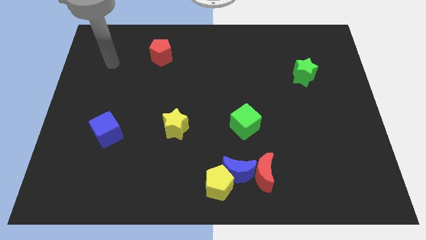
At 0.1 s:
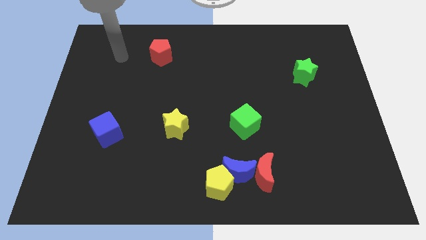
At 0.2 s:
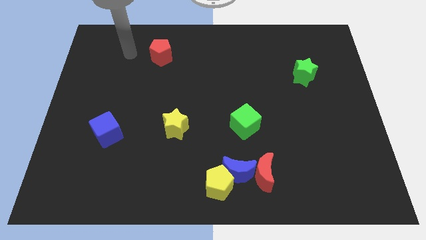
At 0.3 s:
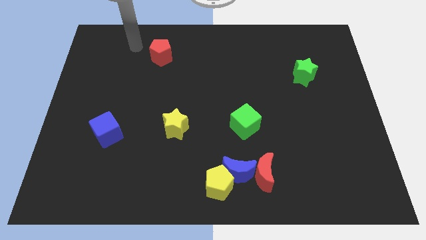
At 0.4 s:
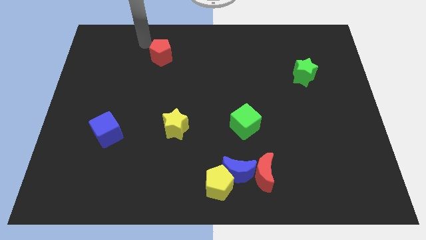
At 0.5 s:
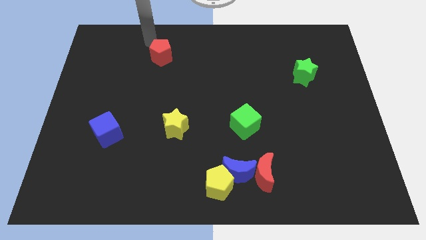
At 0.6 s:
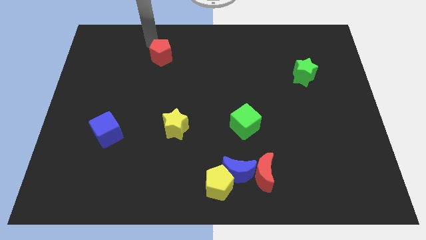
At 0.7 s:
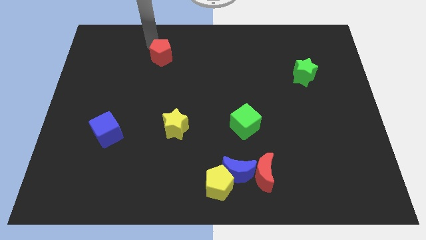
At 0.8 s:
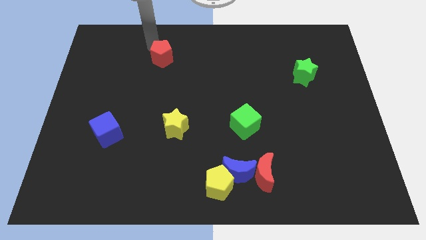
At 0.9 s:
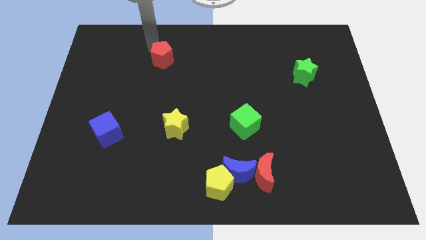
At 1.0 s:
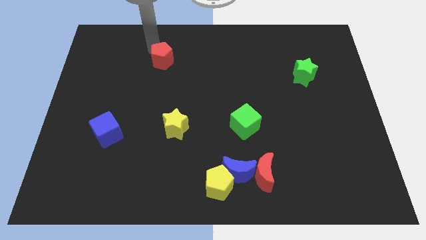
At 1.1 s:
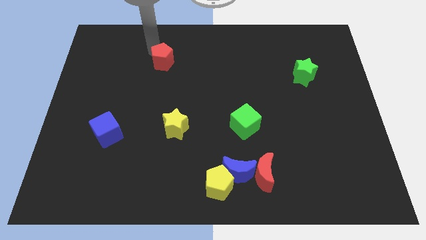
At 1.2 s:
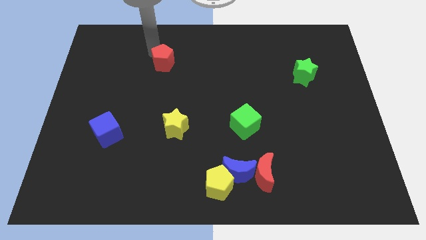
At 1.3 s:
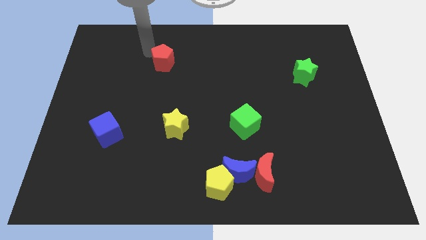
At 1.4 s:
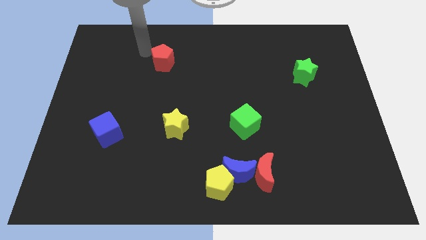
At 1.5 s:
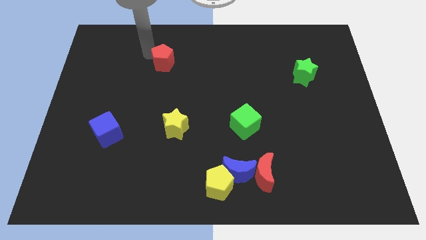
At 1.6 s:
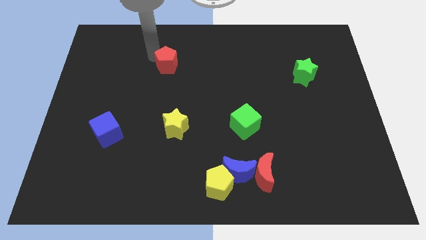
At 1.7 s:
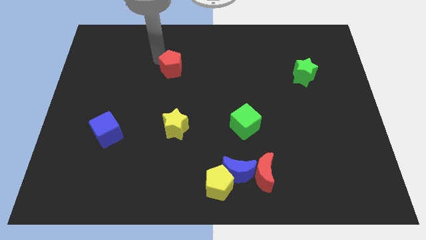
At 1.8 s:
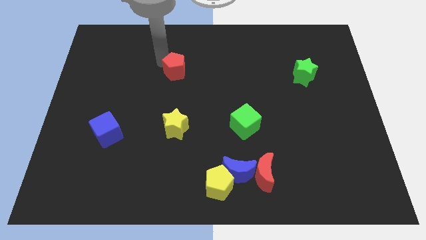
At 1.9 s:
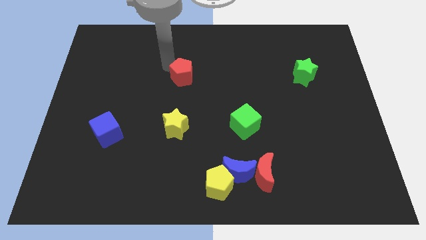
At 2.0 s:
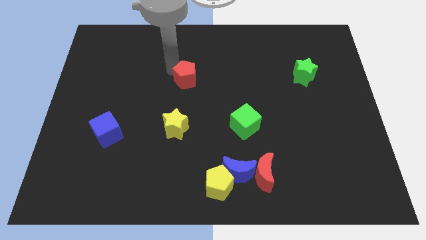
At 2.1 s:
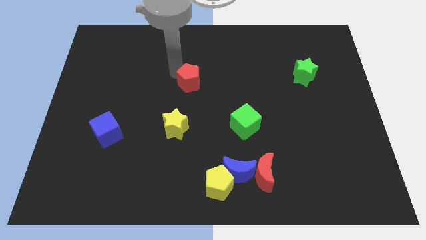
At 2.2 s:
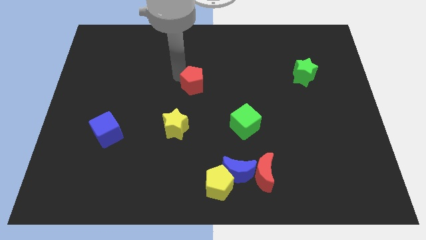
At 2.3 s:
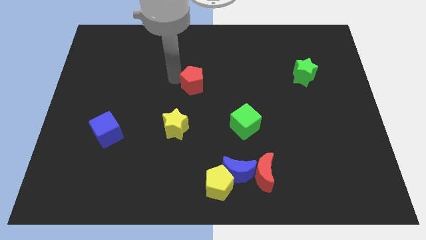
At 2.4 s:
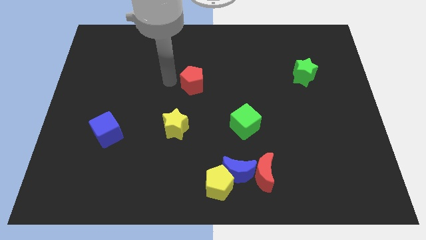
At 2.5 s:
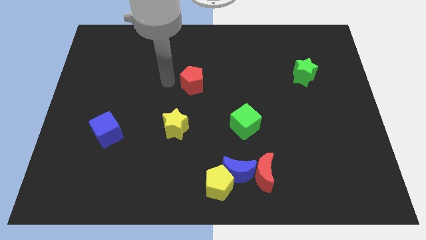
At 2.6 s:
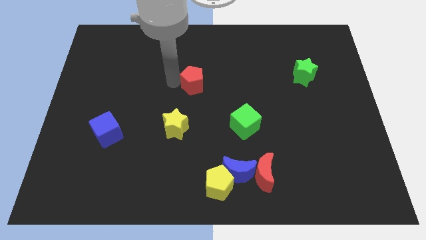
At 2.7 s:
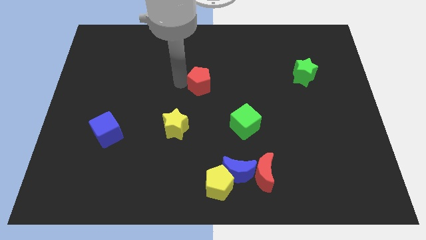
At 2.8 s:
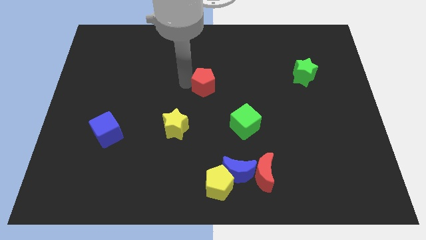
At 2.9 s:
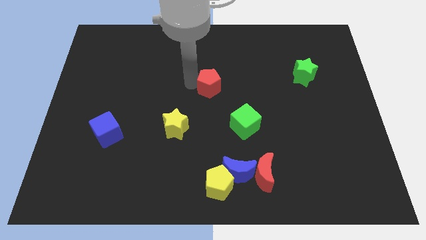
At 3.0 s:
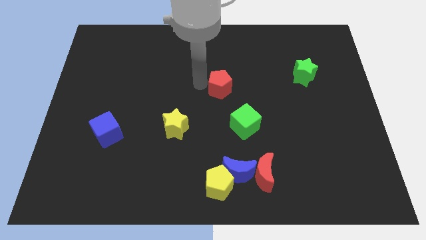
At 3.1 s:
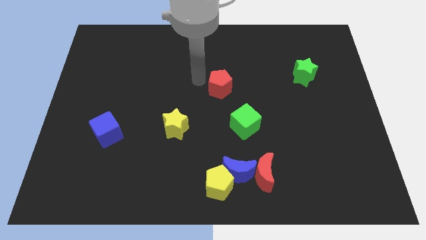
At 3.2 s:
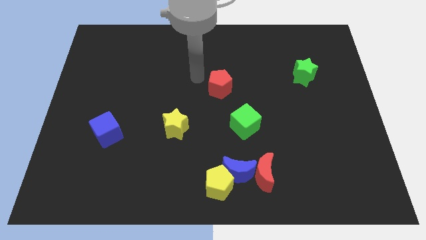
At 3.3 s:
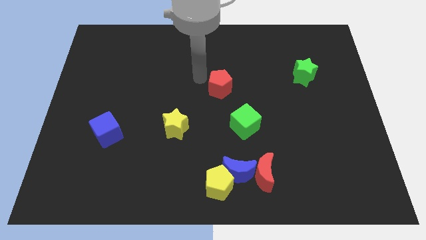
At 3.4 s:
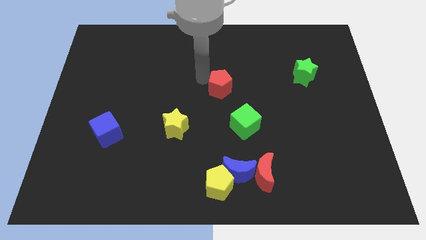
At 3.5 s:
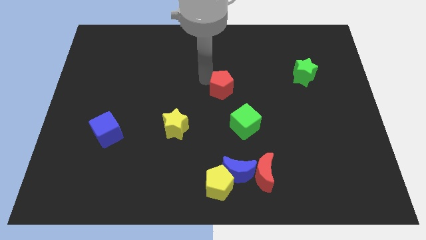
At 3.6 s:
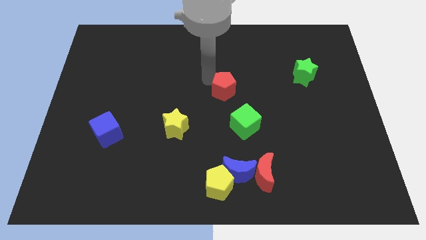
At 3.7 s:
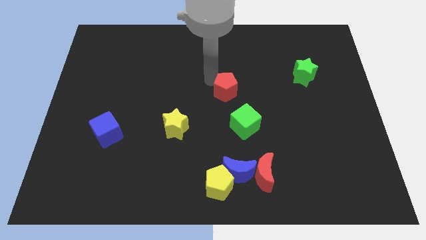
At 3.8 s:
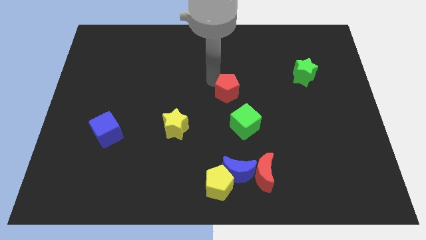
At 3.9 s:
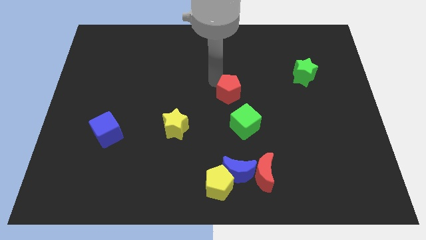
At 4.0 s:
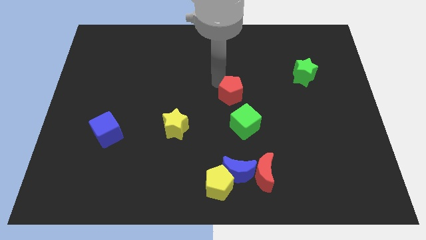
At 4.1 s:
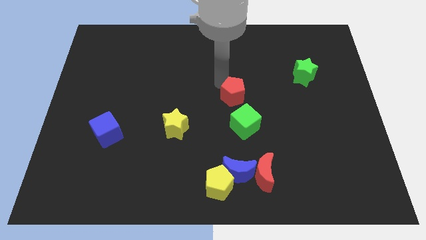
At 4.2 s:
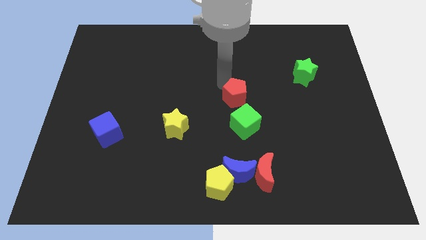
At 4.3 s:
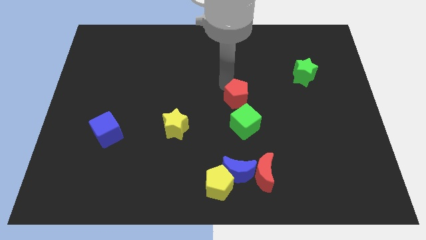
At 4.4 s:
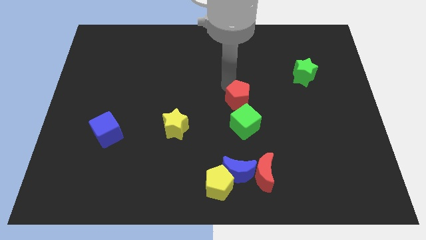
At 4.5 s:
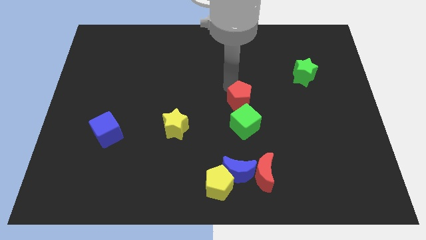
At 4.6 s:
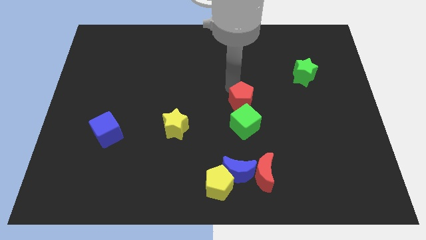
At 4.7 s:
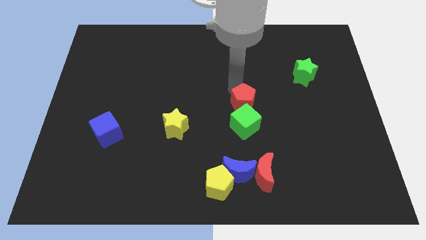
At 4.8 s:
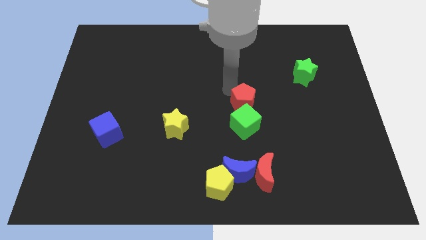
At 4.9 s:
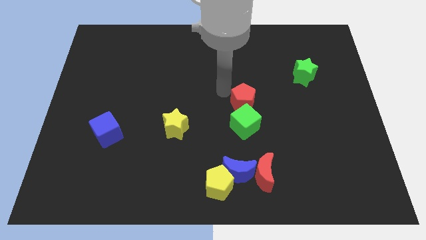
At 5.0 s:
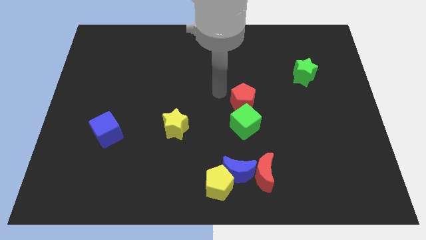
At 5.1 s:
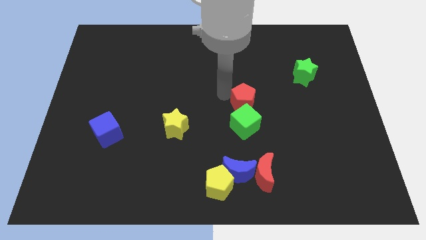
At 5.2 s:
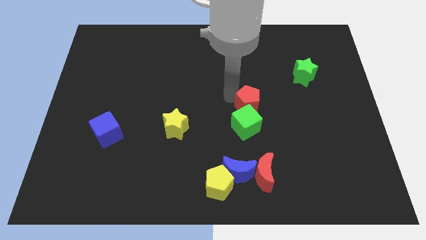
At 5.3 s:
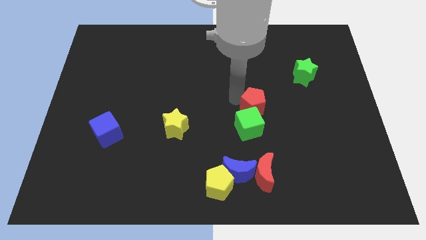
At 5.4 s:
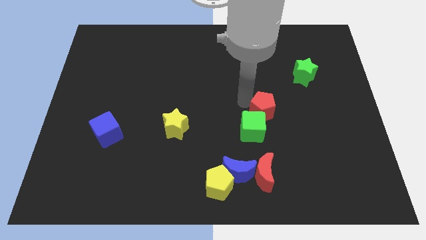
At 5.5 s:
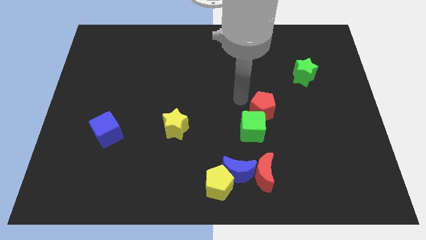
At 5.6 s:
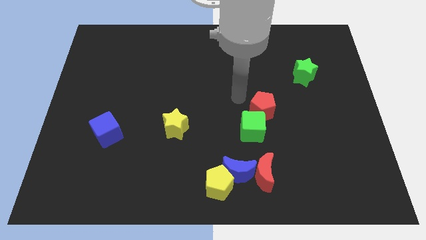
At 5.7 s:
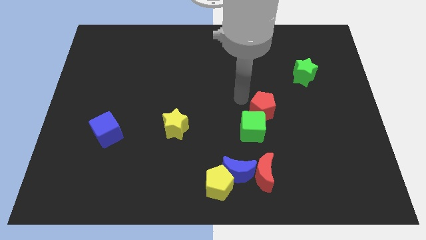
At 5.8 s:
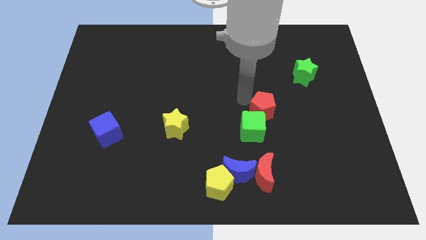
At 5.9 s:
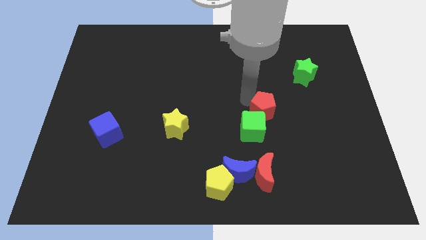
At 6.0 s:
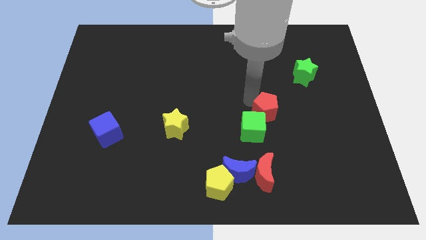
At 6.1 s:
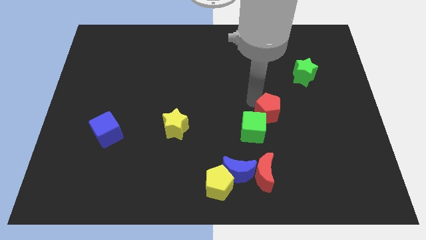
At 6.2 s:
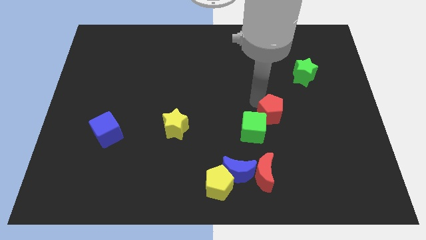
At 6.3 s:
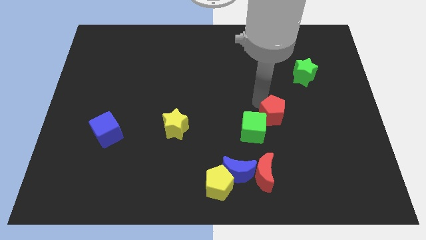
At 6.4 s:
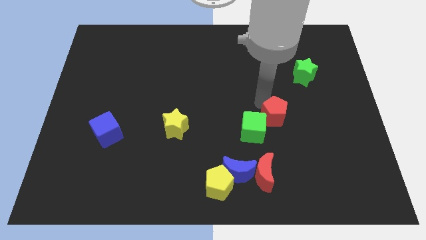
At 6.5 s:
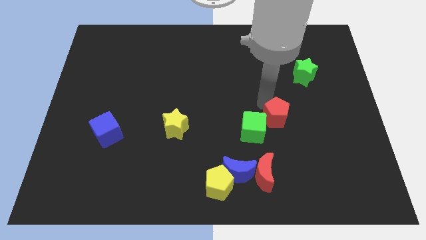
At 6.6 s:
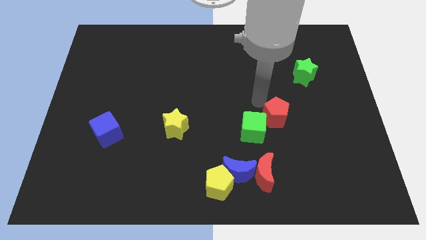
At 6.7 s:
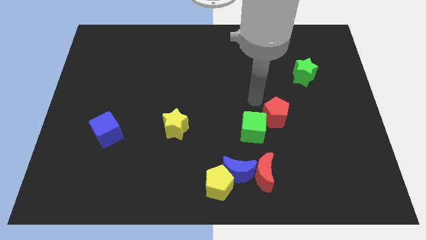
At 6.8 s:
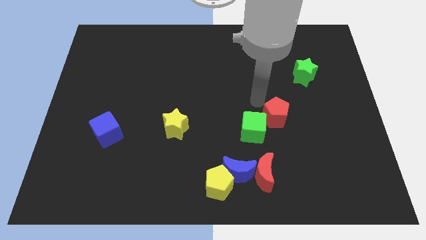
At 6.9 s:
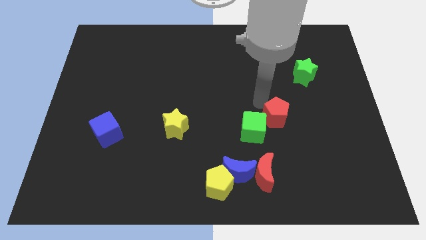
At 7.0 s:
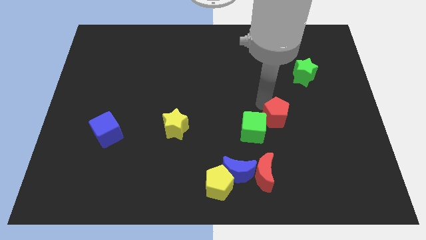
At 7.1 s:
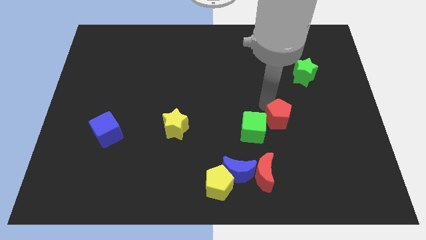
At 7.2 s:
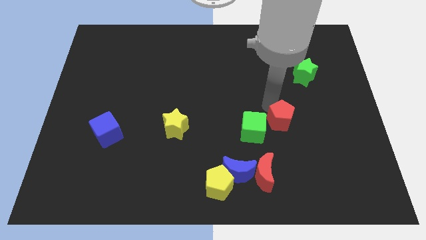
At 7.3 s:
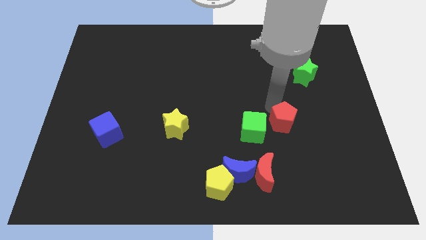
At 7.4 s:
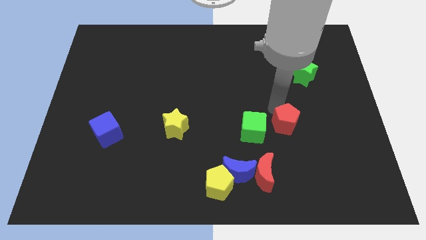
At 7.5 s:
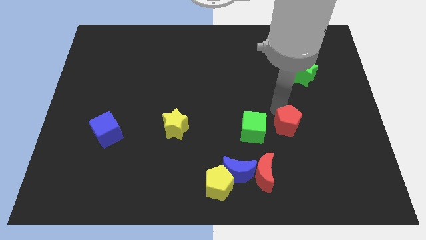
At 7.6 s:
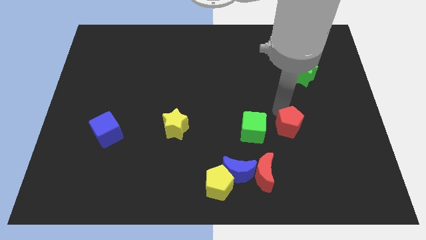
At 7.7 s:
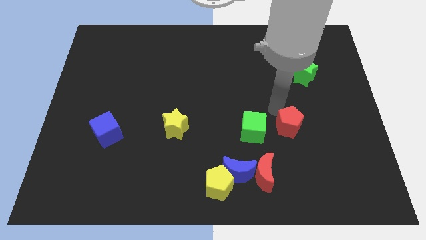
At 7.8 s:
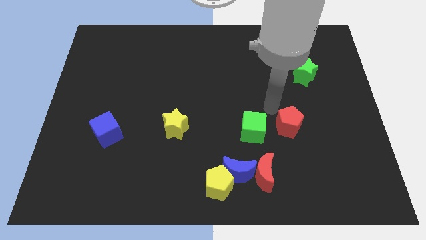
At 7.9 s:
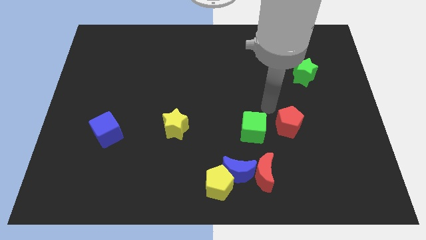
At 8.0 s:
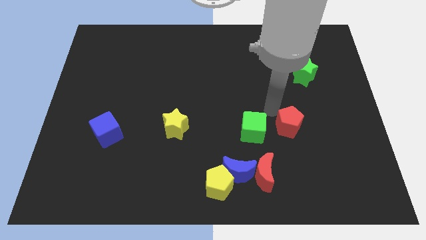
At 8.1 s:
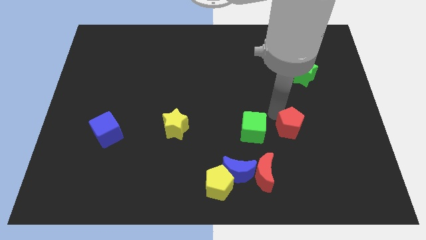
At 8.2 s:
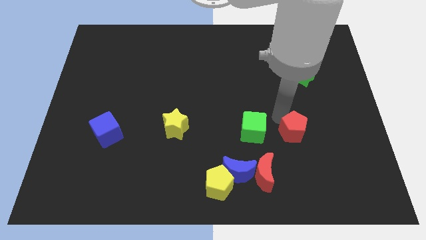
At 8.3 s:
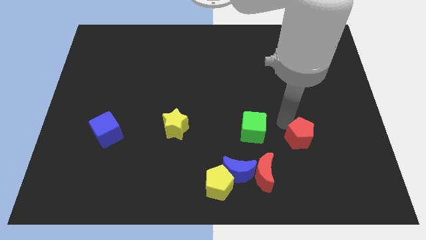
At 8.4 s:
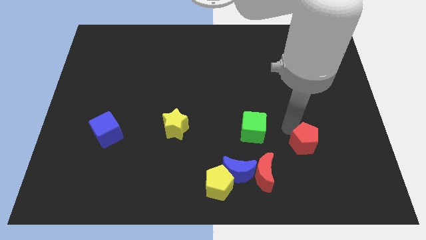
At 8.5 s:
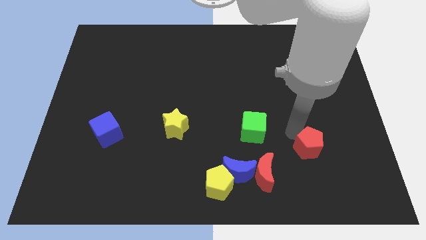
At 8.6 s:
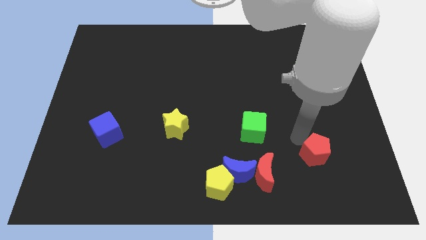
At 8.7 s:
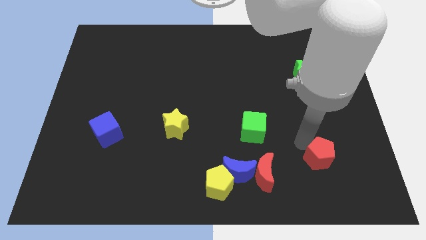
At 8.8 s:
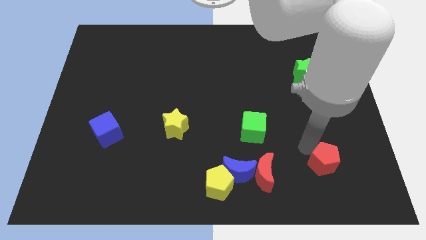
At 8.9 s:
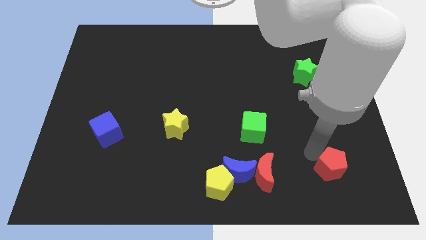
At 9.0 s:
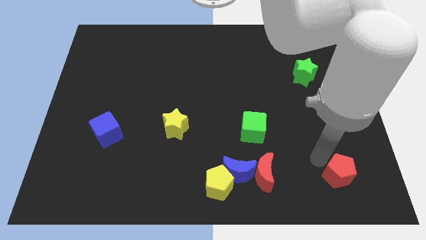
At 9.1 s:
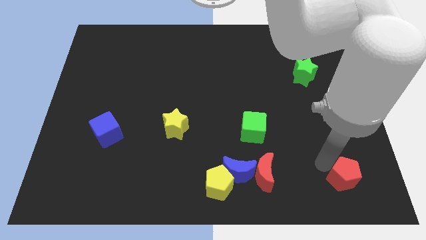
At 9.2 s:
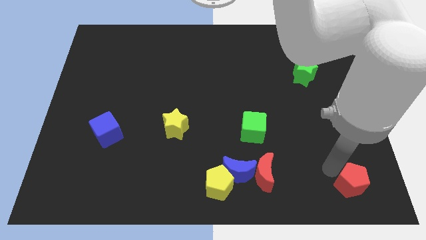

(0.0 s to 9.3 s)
move the red pentagon to the bottom right corner
